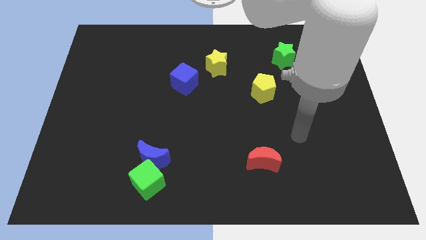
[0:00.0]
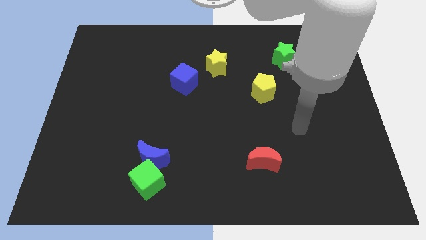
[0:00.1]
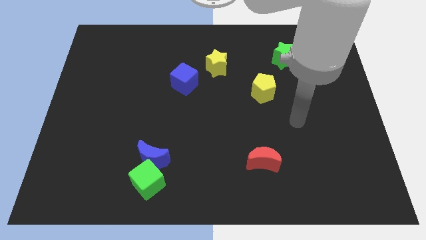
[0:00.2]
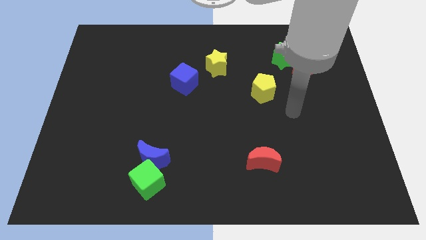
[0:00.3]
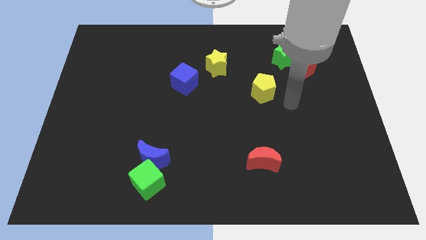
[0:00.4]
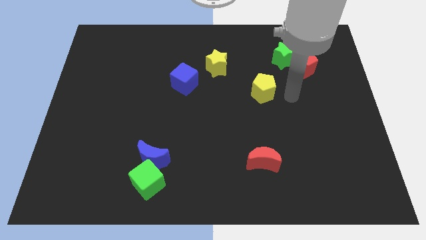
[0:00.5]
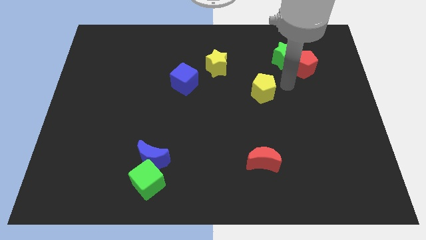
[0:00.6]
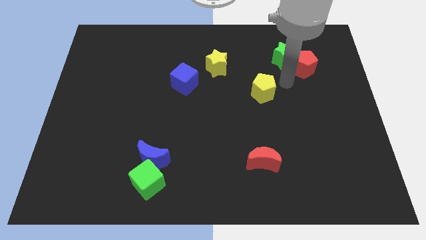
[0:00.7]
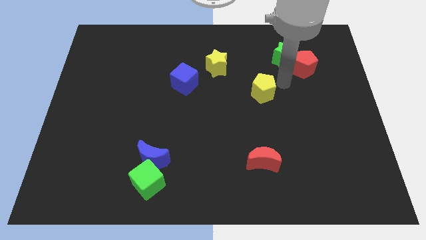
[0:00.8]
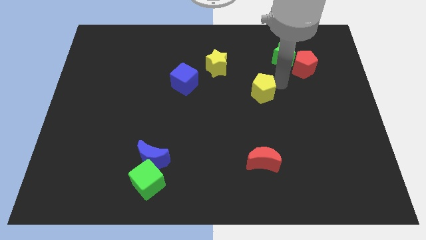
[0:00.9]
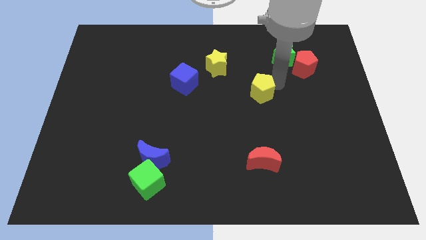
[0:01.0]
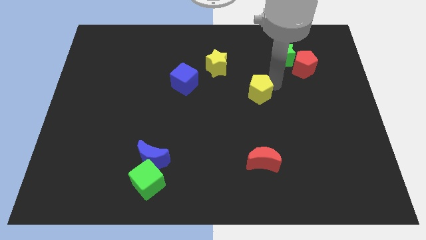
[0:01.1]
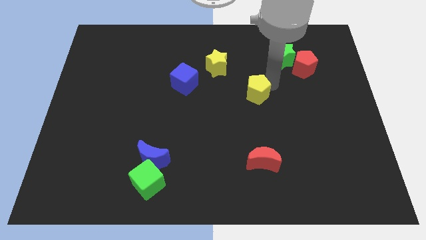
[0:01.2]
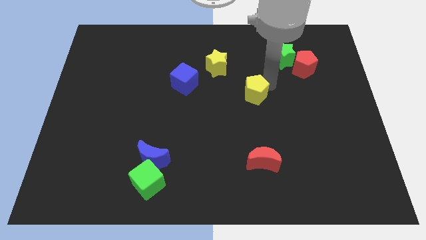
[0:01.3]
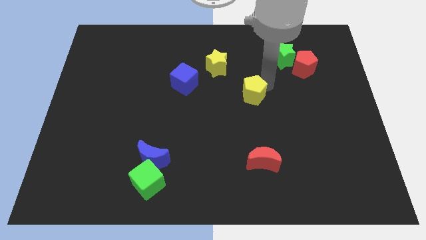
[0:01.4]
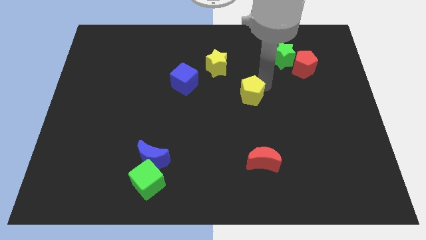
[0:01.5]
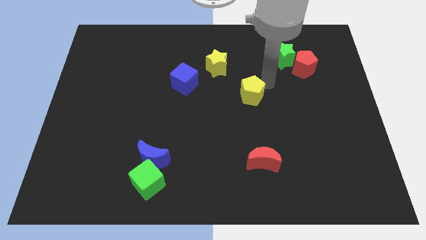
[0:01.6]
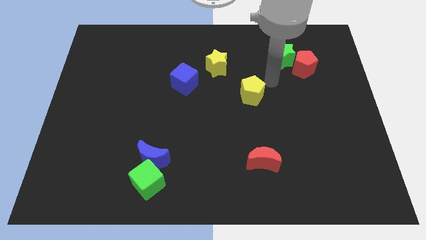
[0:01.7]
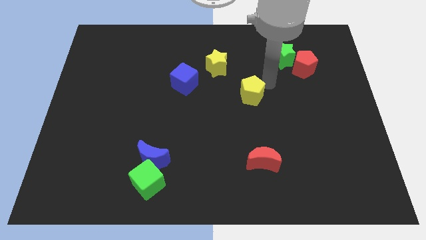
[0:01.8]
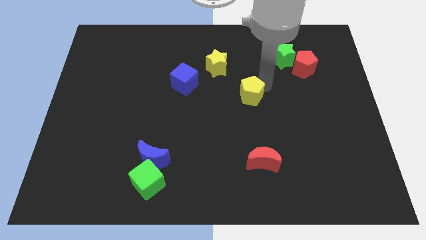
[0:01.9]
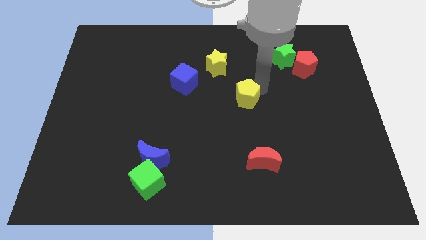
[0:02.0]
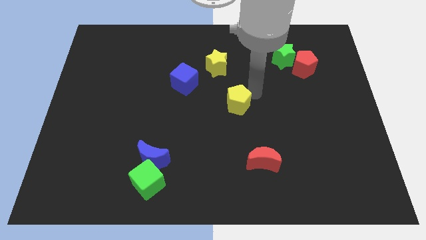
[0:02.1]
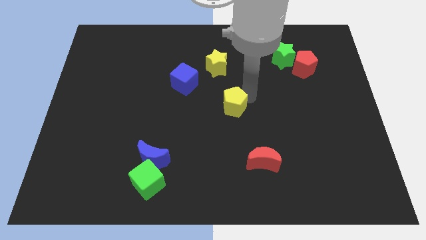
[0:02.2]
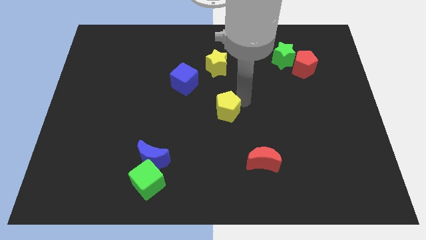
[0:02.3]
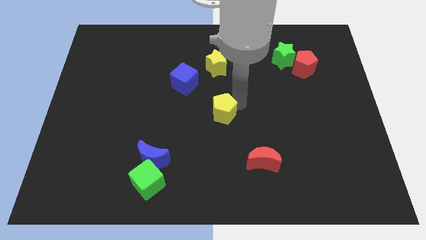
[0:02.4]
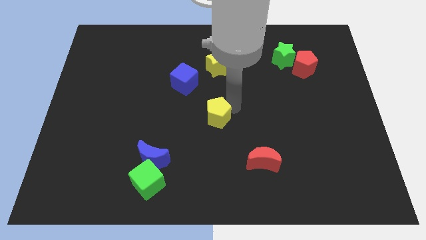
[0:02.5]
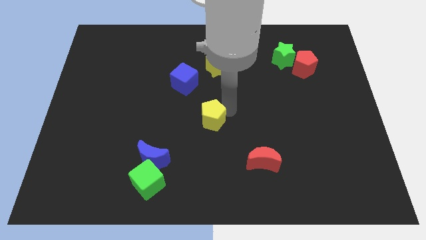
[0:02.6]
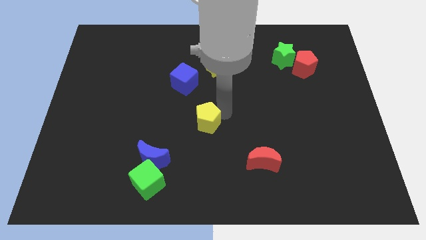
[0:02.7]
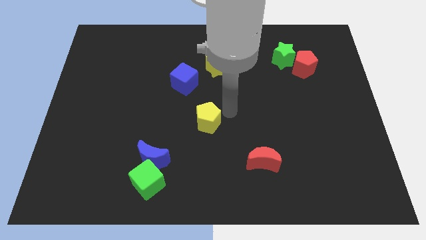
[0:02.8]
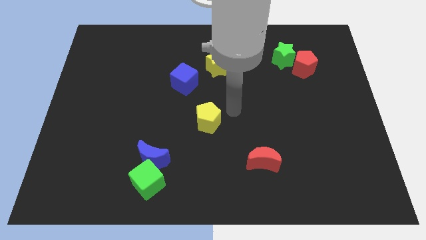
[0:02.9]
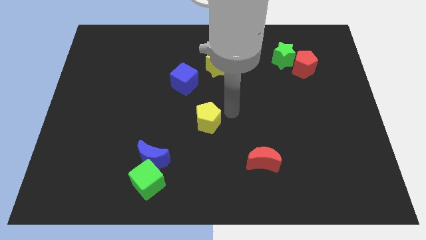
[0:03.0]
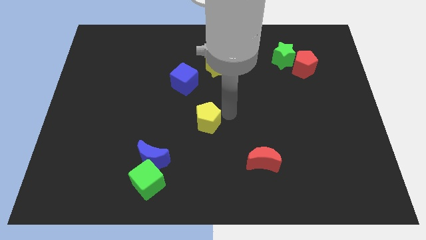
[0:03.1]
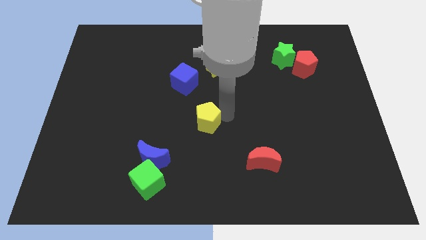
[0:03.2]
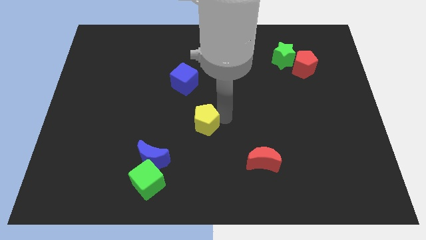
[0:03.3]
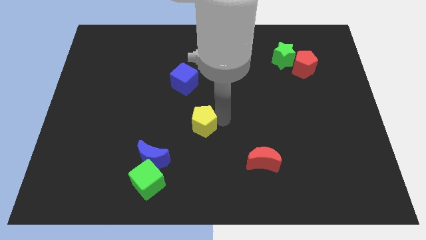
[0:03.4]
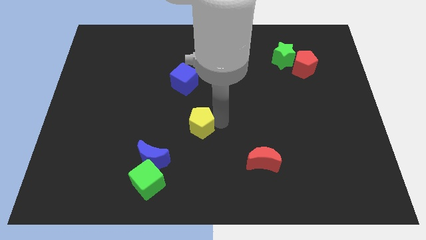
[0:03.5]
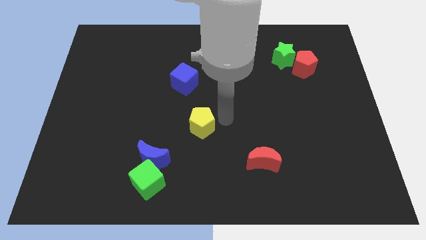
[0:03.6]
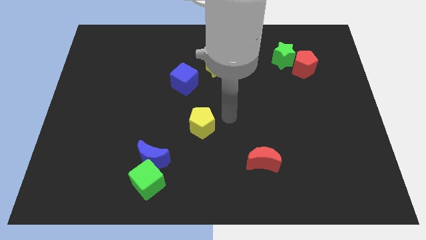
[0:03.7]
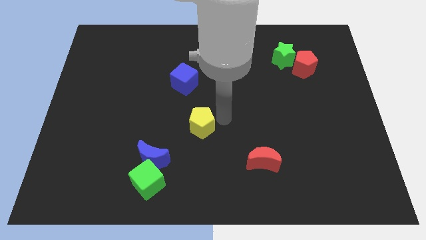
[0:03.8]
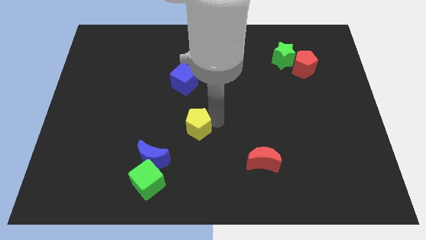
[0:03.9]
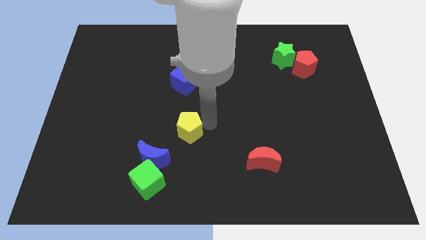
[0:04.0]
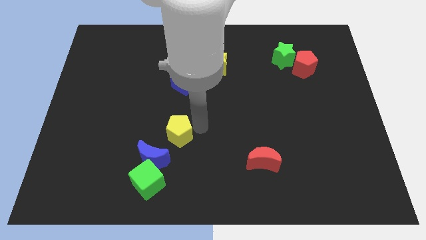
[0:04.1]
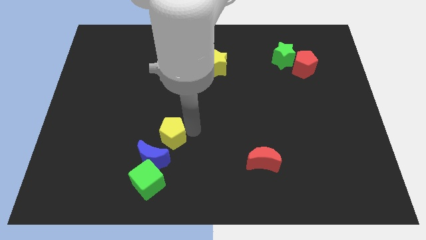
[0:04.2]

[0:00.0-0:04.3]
push the yellow pentagon to the top side of the green cube

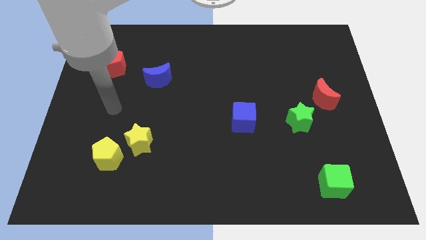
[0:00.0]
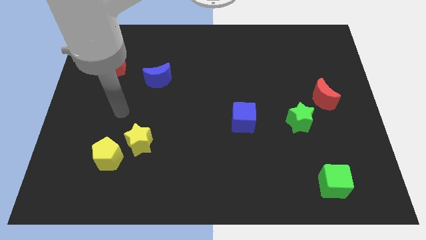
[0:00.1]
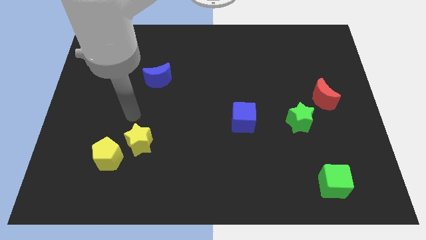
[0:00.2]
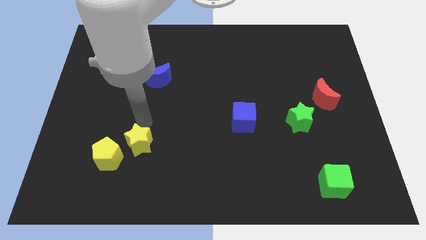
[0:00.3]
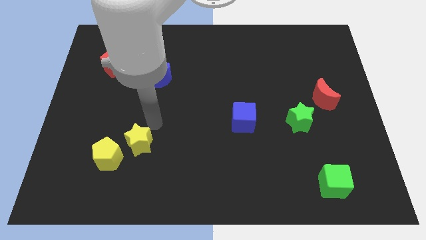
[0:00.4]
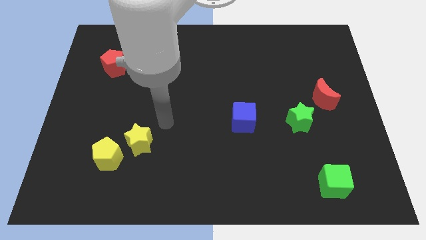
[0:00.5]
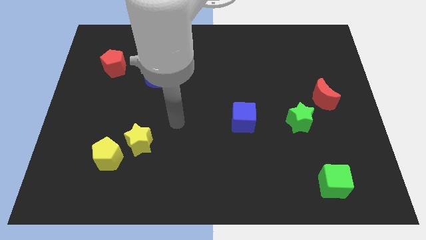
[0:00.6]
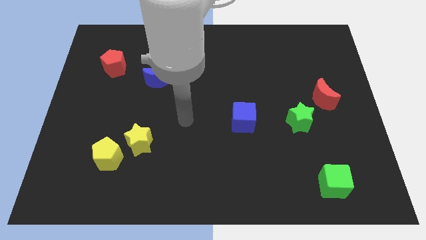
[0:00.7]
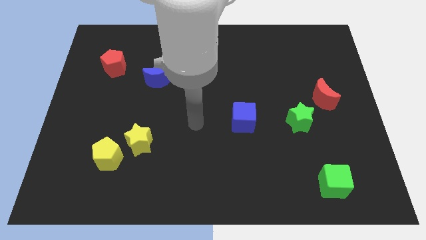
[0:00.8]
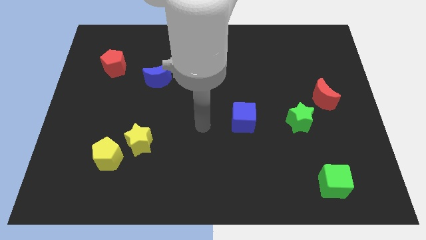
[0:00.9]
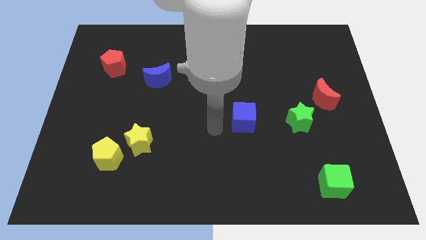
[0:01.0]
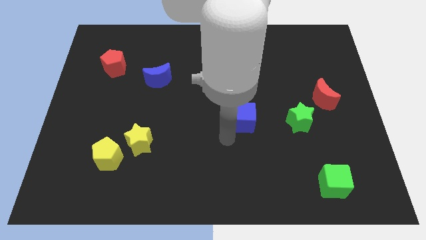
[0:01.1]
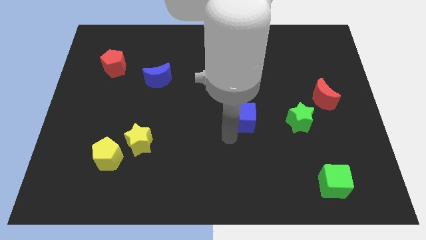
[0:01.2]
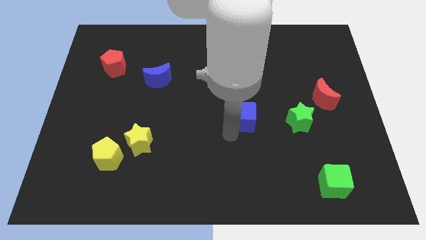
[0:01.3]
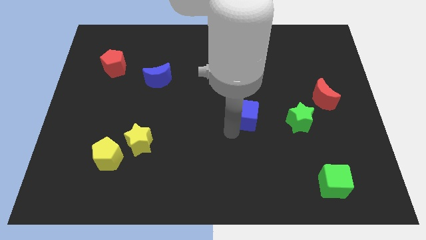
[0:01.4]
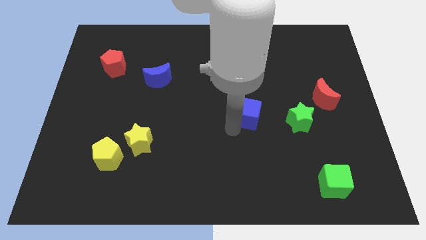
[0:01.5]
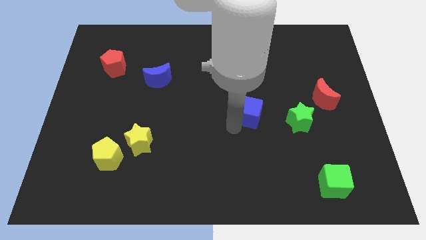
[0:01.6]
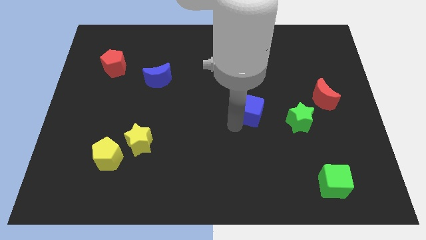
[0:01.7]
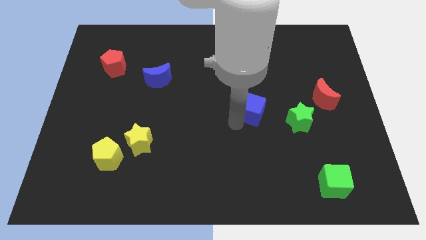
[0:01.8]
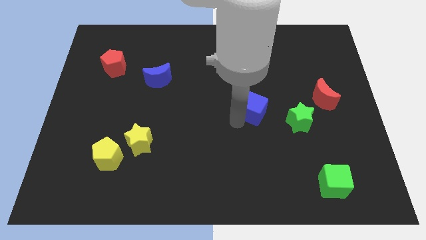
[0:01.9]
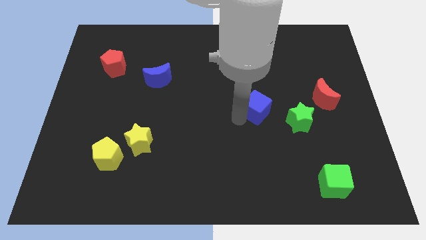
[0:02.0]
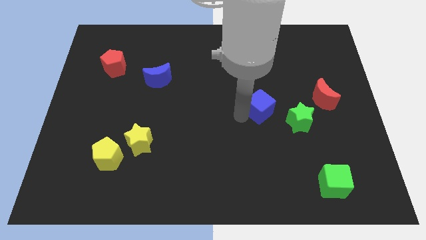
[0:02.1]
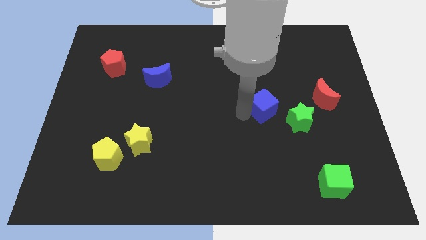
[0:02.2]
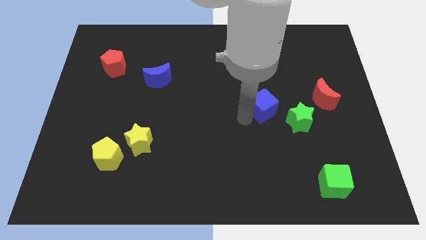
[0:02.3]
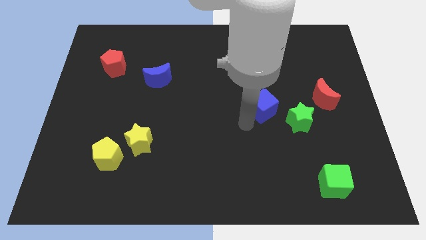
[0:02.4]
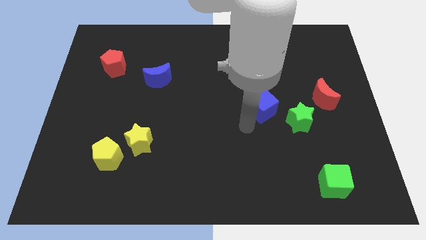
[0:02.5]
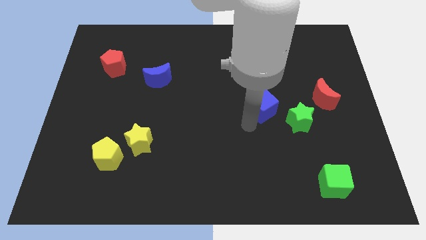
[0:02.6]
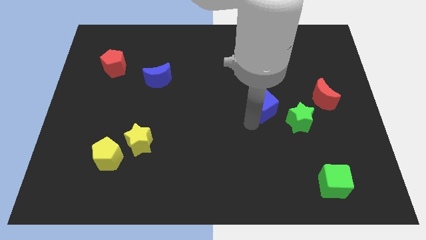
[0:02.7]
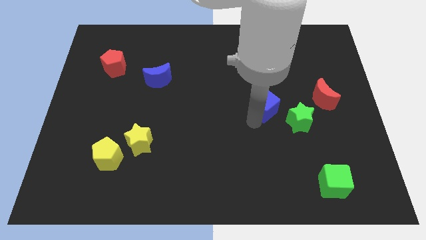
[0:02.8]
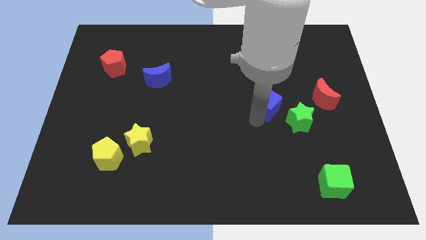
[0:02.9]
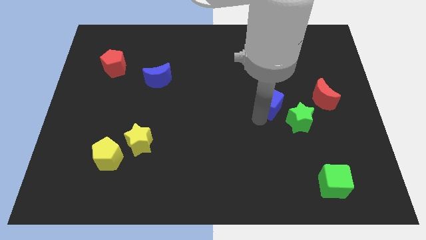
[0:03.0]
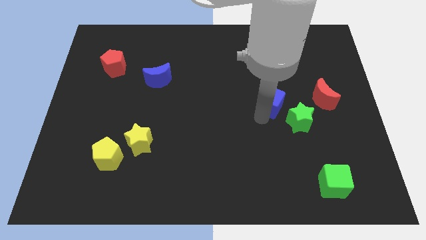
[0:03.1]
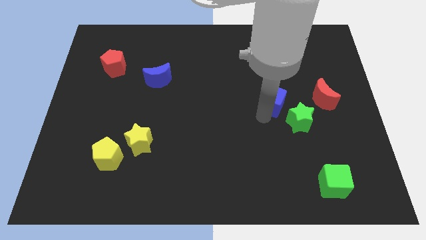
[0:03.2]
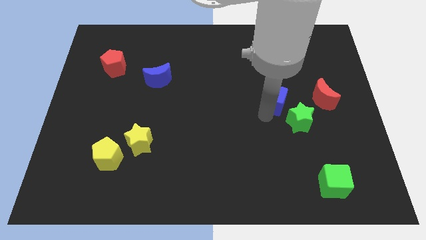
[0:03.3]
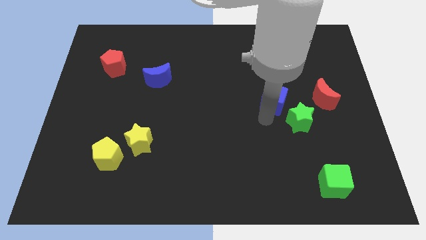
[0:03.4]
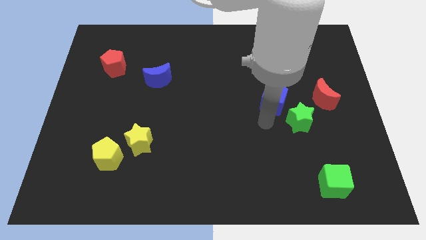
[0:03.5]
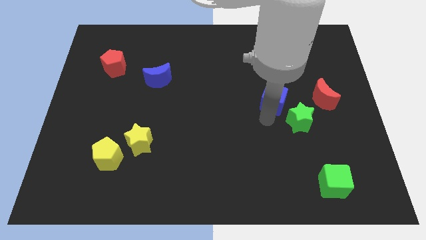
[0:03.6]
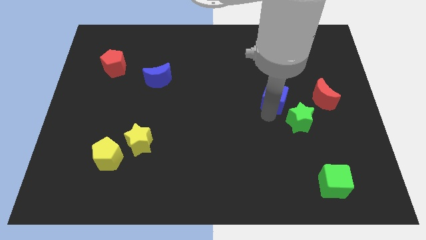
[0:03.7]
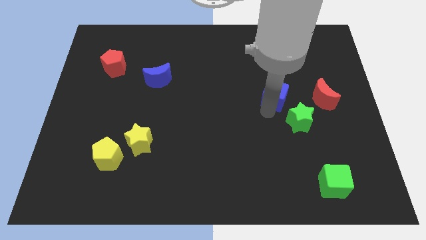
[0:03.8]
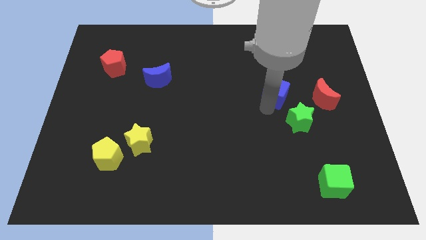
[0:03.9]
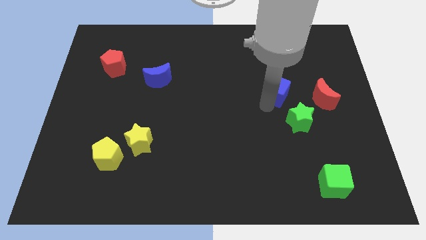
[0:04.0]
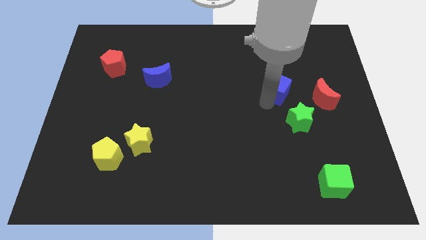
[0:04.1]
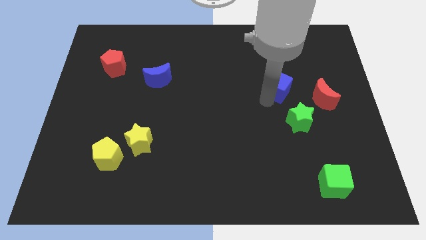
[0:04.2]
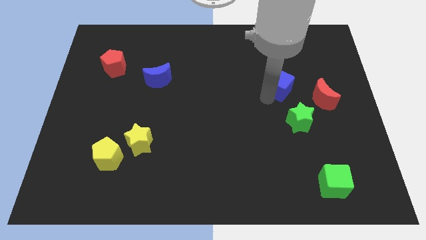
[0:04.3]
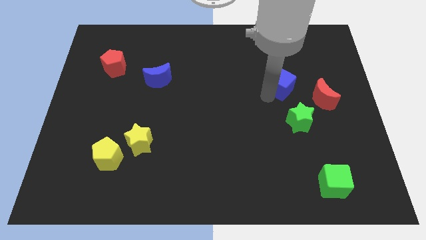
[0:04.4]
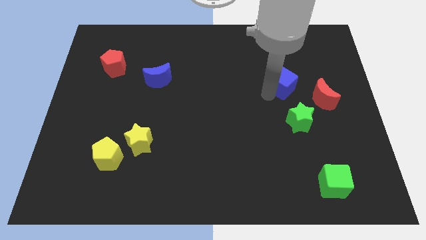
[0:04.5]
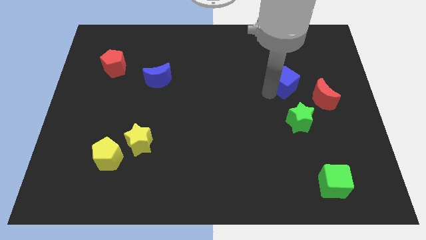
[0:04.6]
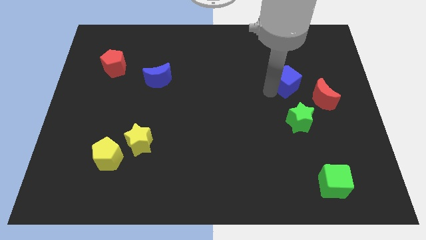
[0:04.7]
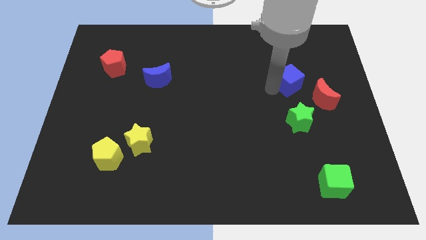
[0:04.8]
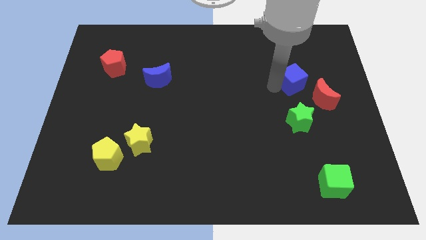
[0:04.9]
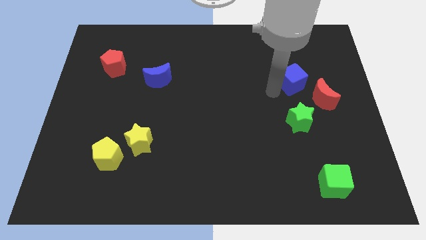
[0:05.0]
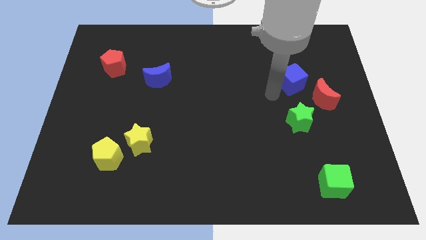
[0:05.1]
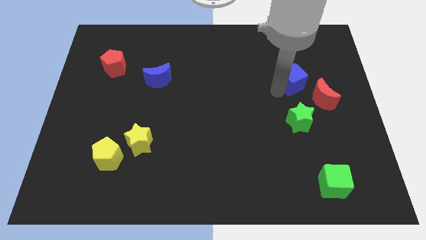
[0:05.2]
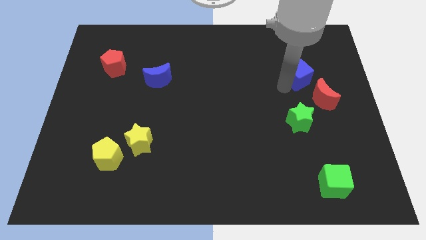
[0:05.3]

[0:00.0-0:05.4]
put the blue cube to the top side of the red moon
